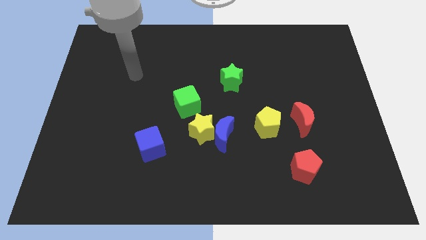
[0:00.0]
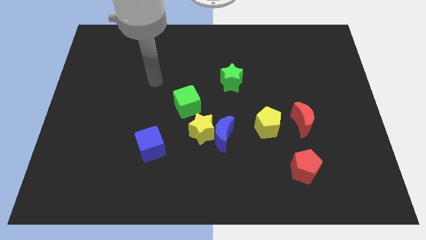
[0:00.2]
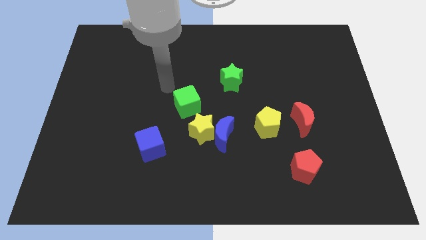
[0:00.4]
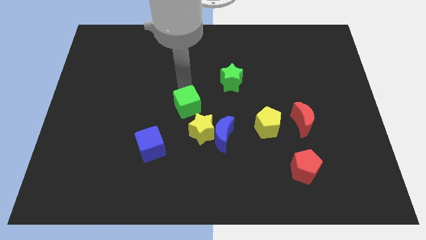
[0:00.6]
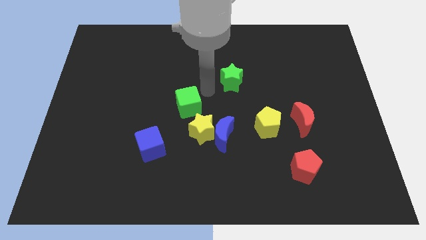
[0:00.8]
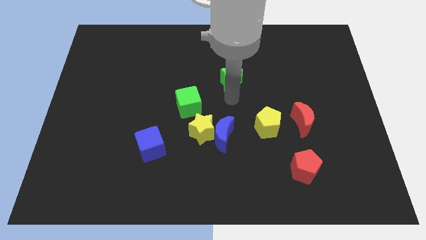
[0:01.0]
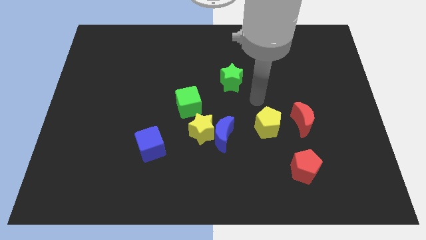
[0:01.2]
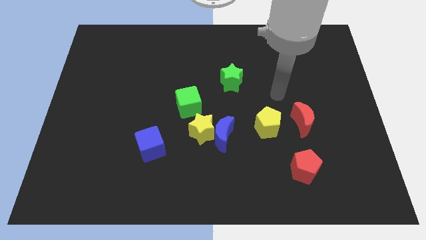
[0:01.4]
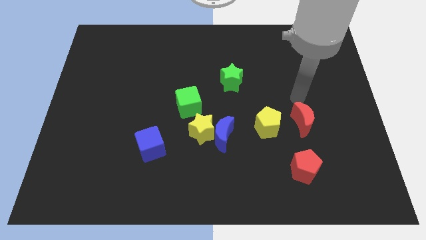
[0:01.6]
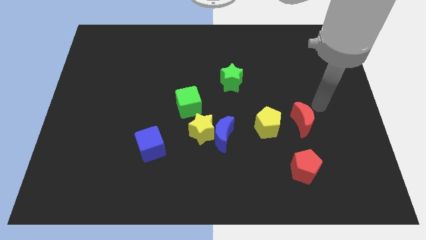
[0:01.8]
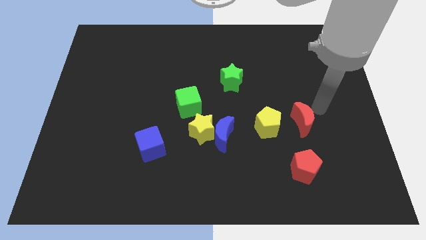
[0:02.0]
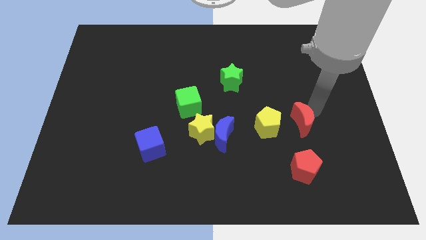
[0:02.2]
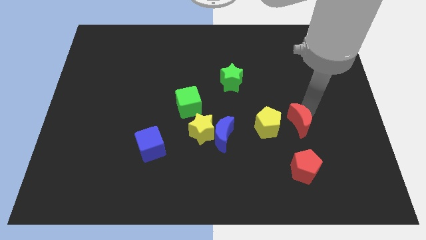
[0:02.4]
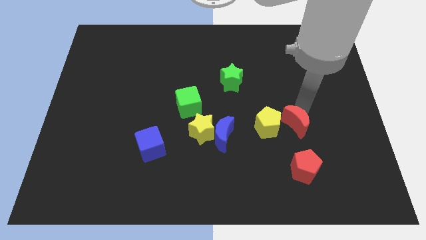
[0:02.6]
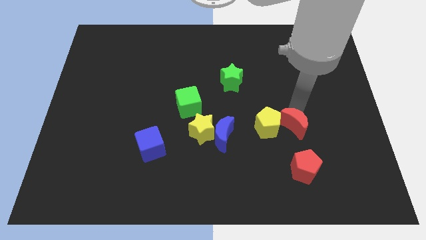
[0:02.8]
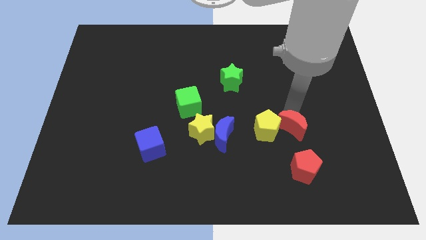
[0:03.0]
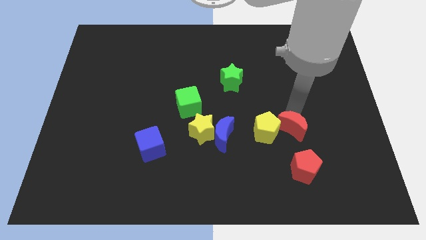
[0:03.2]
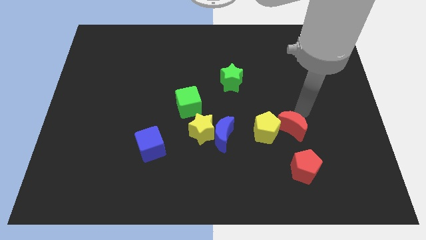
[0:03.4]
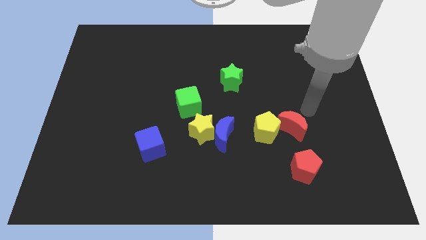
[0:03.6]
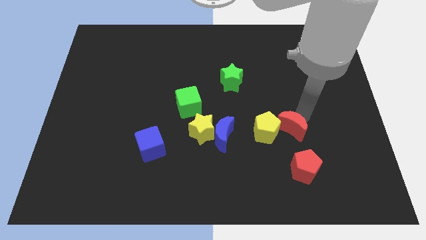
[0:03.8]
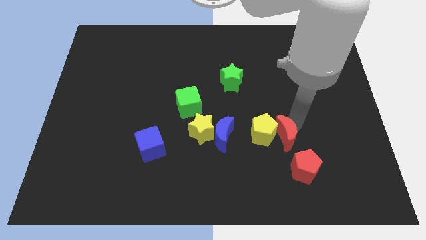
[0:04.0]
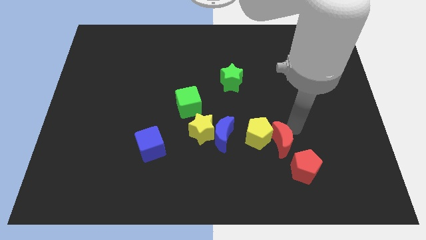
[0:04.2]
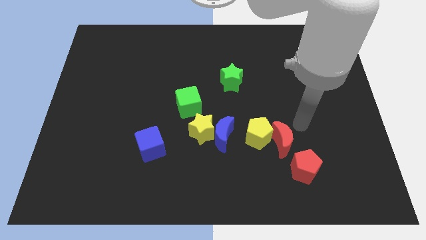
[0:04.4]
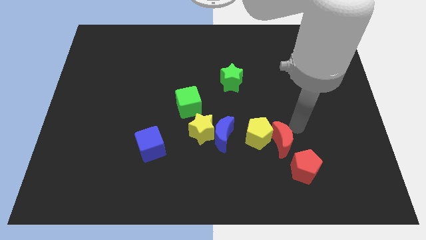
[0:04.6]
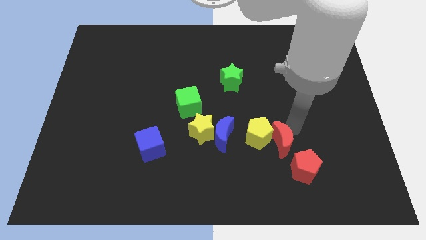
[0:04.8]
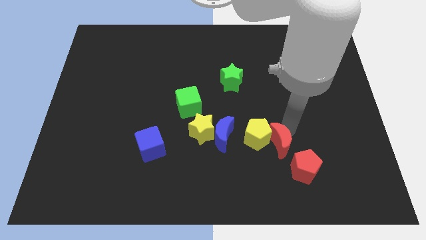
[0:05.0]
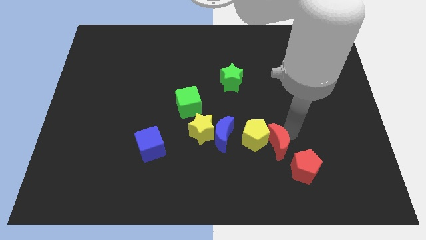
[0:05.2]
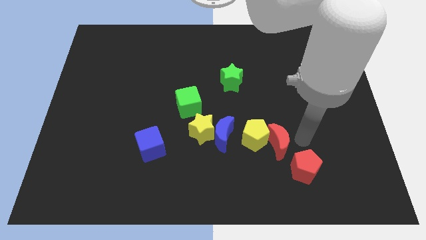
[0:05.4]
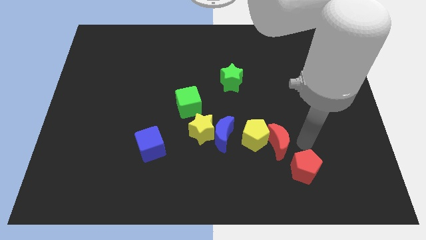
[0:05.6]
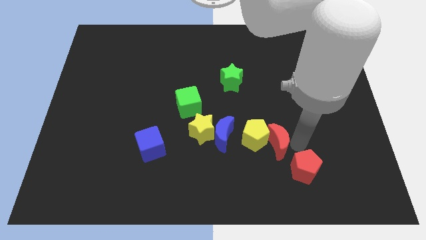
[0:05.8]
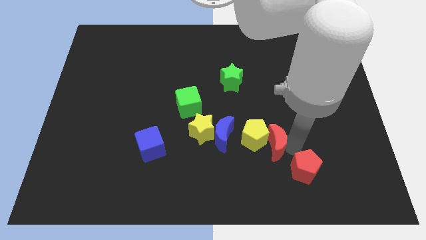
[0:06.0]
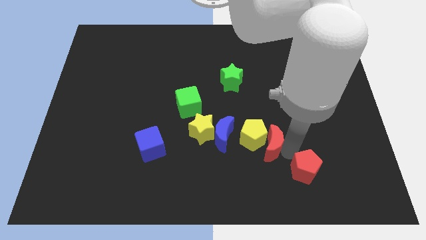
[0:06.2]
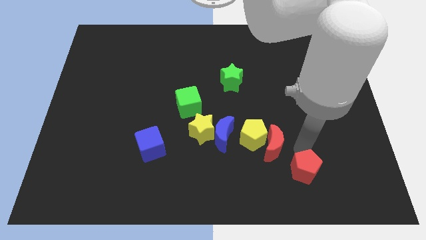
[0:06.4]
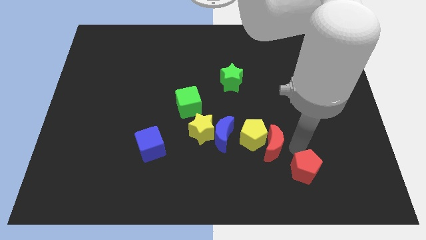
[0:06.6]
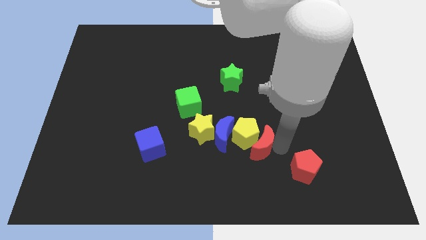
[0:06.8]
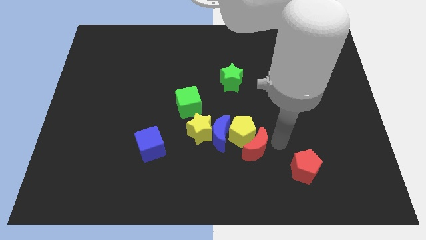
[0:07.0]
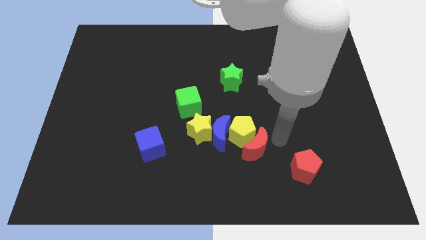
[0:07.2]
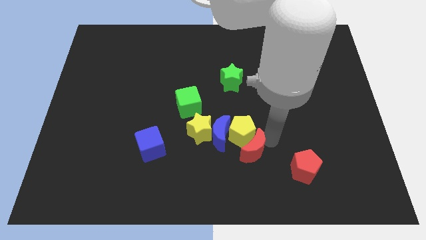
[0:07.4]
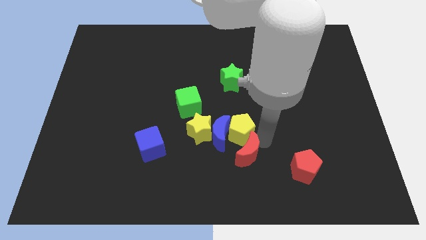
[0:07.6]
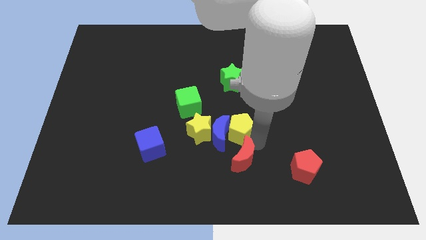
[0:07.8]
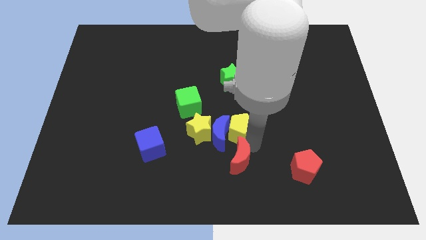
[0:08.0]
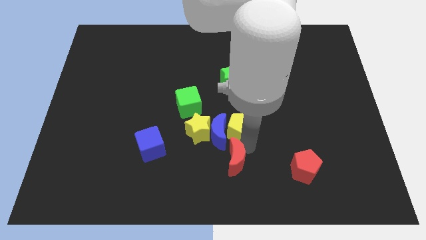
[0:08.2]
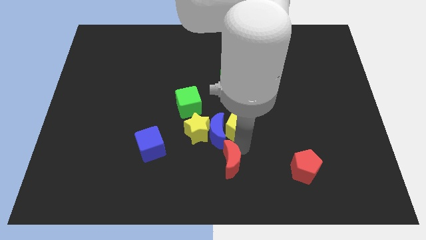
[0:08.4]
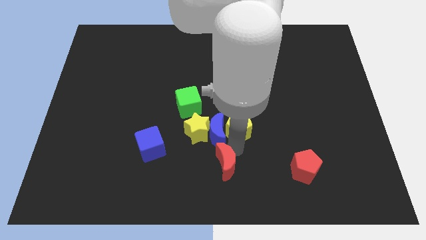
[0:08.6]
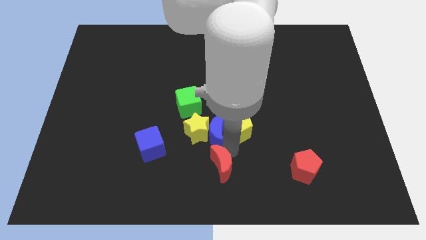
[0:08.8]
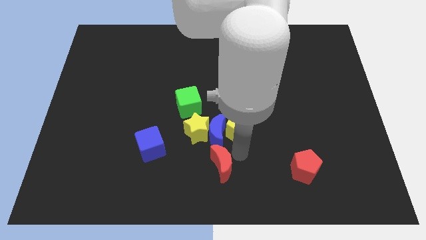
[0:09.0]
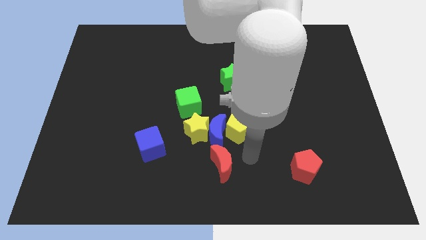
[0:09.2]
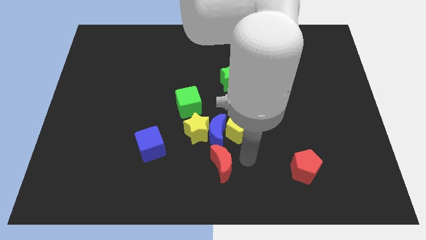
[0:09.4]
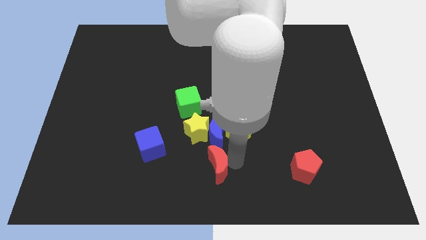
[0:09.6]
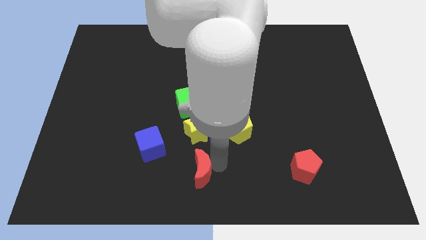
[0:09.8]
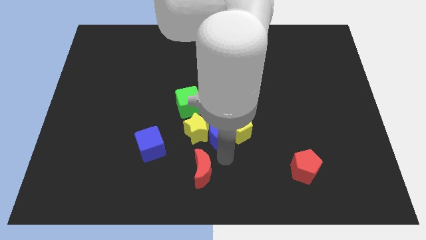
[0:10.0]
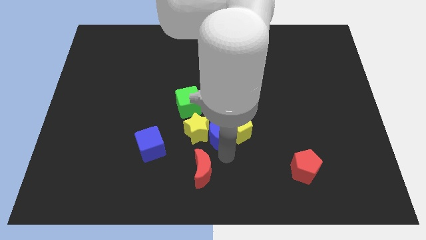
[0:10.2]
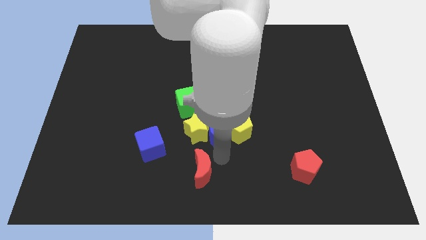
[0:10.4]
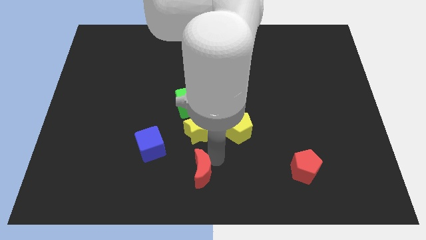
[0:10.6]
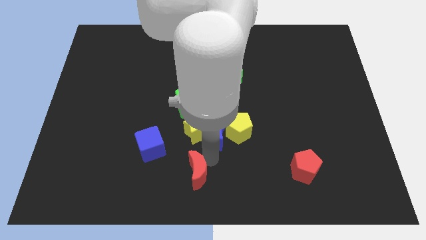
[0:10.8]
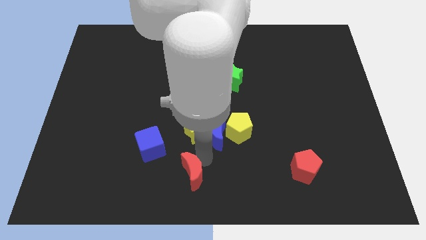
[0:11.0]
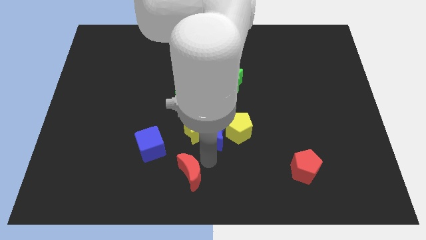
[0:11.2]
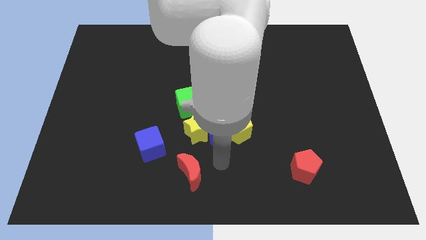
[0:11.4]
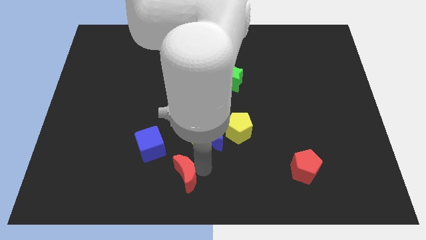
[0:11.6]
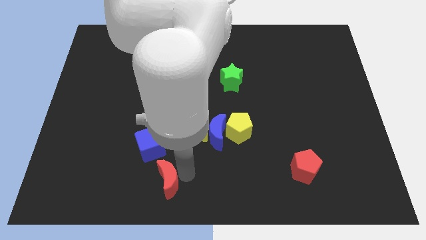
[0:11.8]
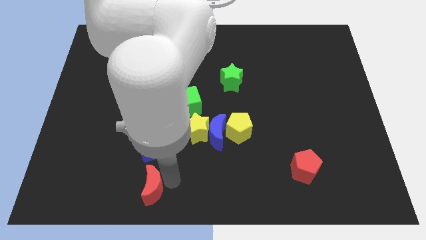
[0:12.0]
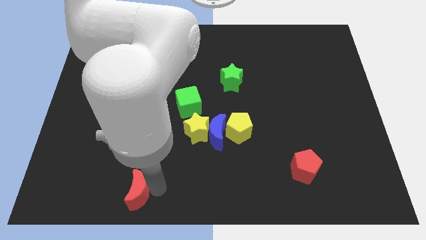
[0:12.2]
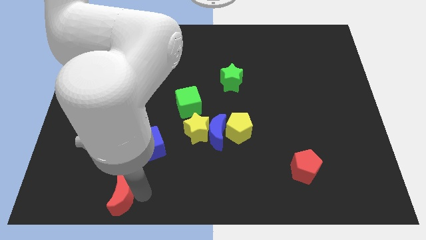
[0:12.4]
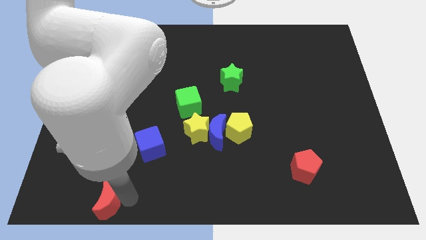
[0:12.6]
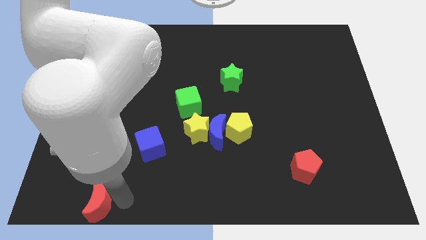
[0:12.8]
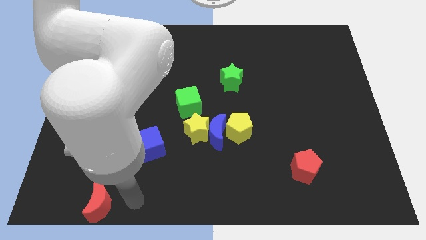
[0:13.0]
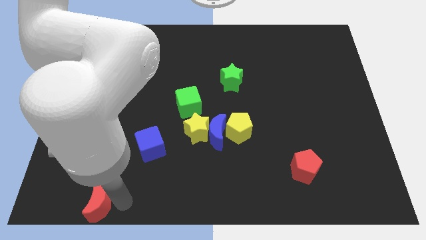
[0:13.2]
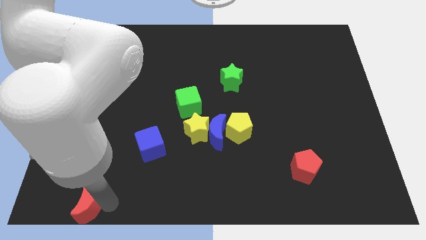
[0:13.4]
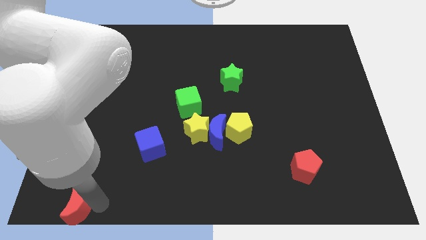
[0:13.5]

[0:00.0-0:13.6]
push the red moon to the bottom left

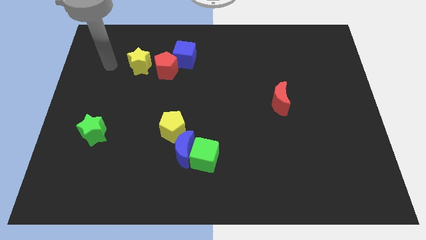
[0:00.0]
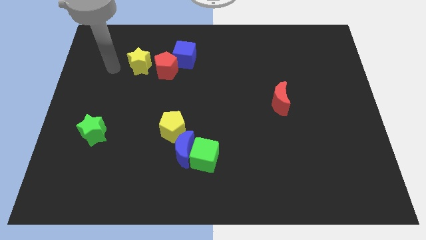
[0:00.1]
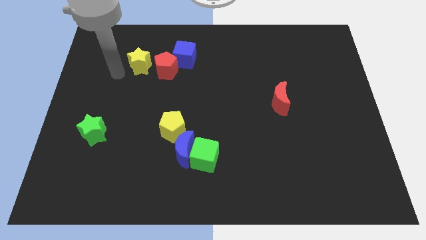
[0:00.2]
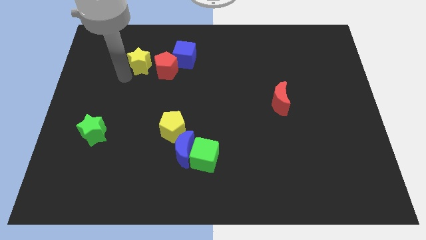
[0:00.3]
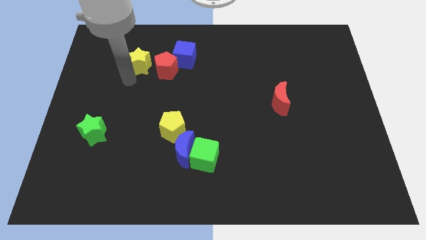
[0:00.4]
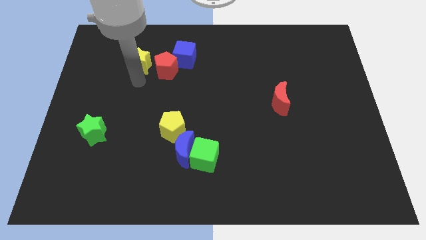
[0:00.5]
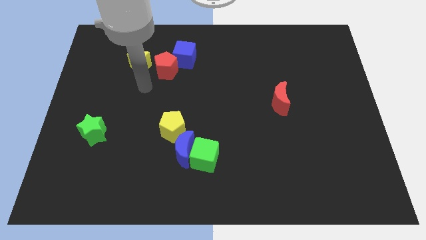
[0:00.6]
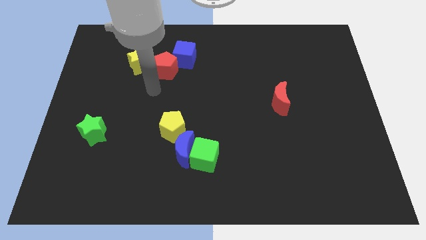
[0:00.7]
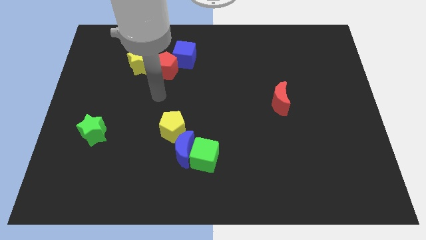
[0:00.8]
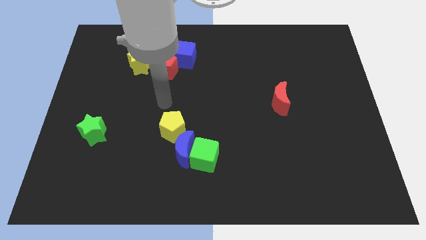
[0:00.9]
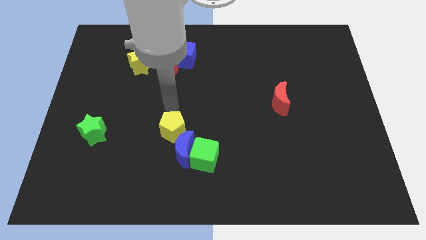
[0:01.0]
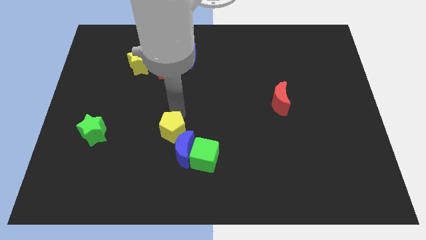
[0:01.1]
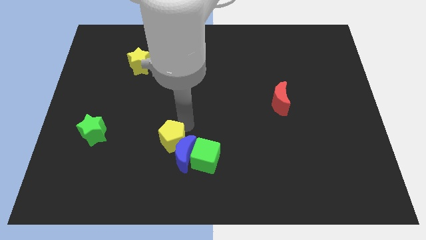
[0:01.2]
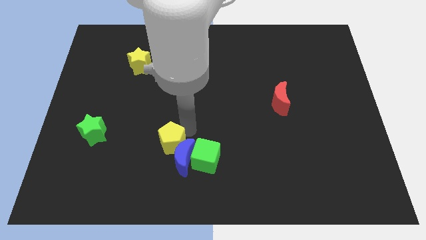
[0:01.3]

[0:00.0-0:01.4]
put the blue moon to the bottom
